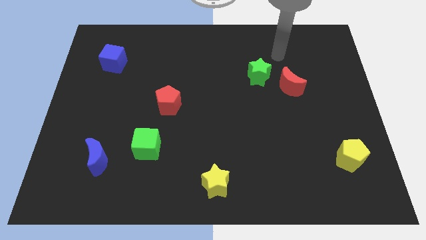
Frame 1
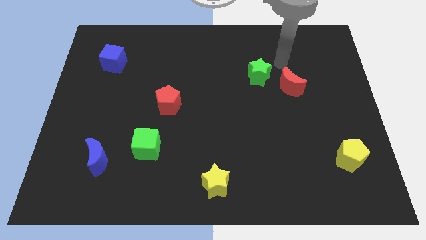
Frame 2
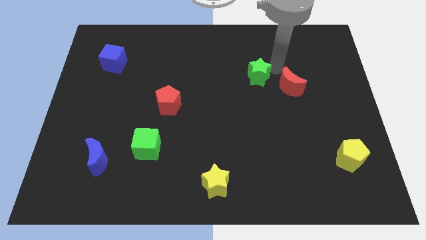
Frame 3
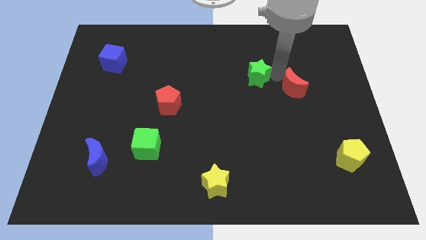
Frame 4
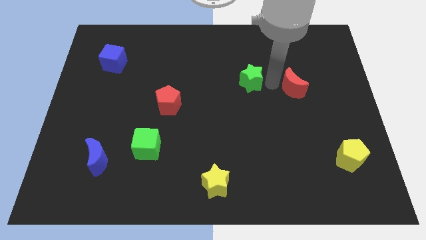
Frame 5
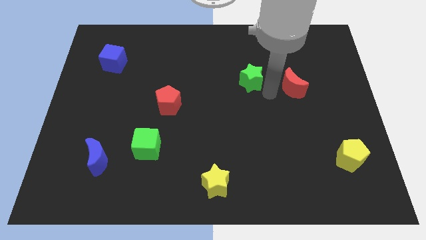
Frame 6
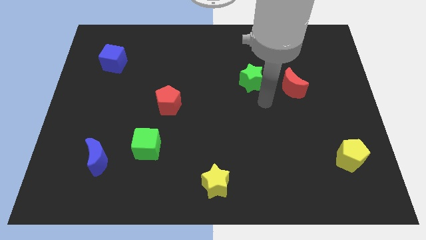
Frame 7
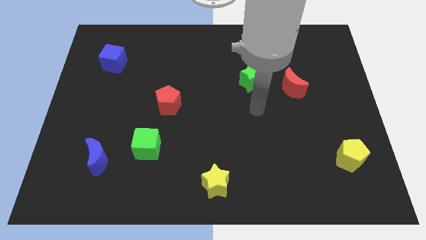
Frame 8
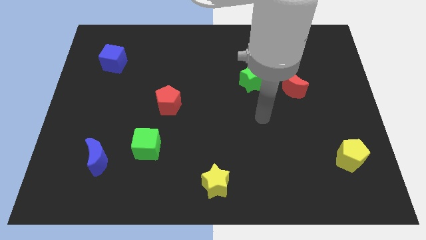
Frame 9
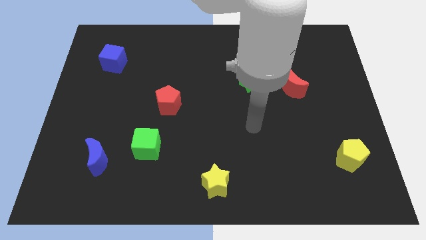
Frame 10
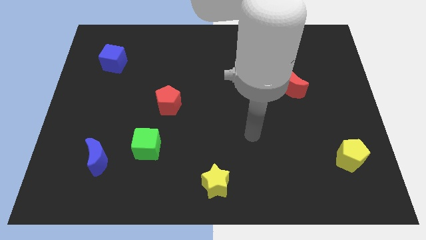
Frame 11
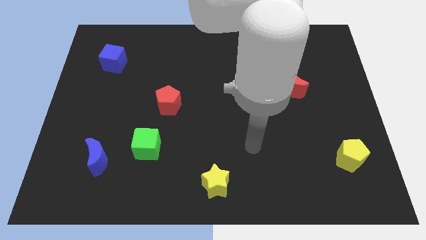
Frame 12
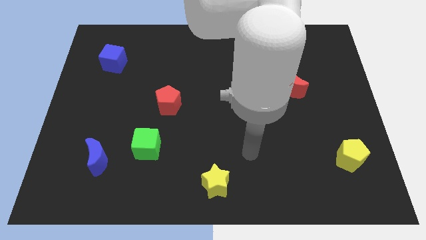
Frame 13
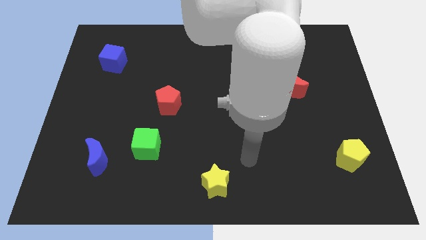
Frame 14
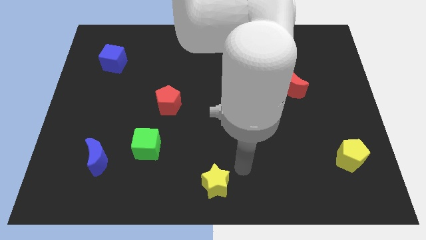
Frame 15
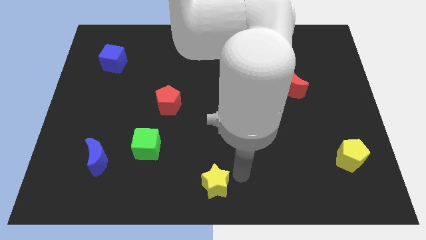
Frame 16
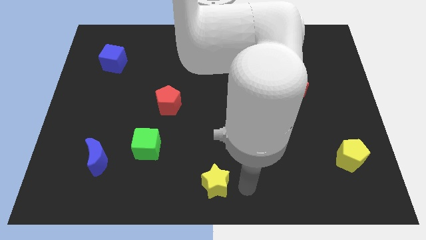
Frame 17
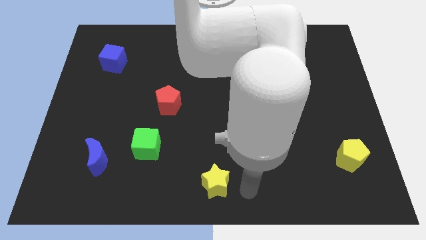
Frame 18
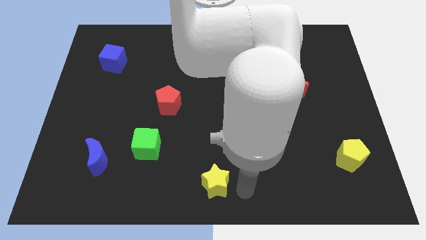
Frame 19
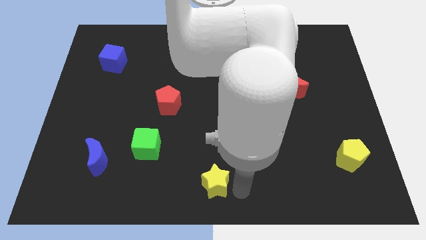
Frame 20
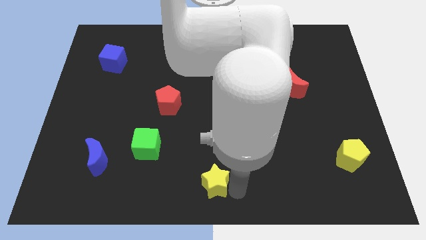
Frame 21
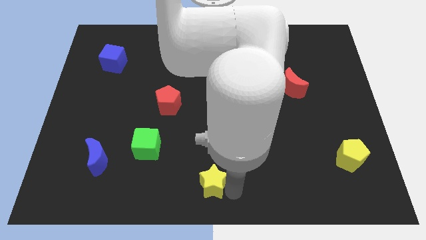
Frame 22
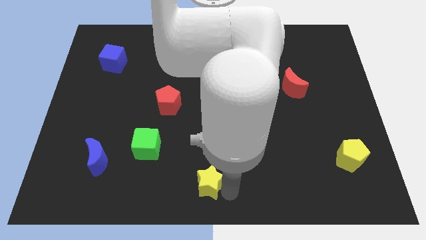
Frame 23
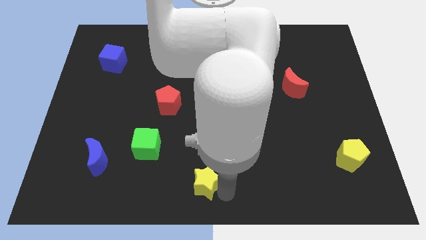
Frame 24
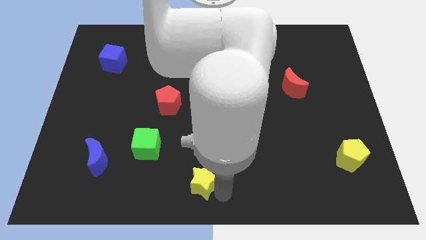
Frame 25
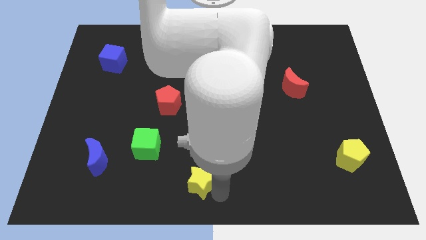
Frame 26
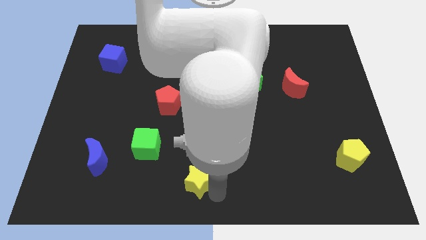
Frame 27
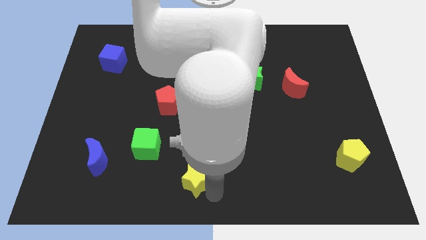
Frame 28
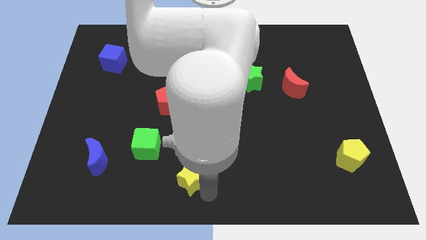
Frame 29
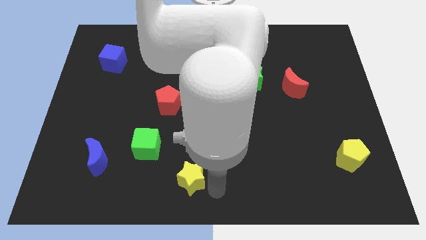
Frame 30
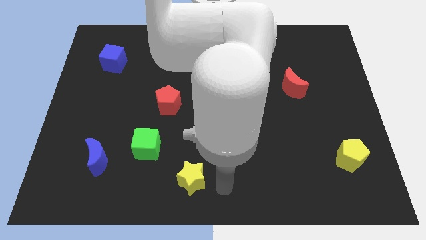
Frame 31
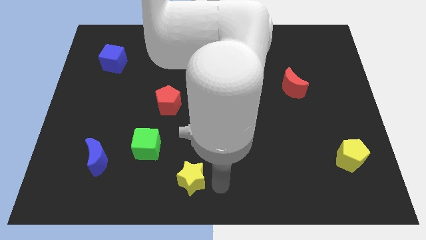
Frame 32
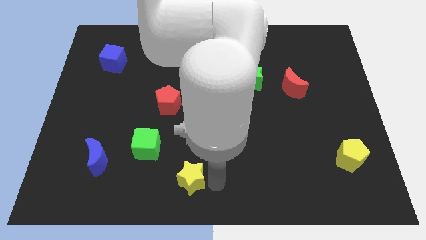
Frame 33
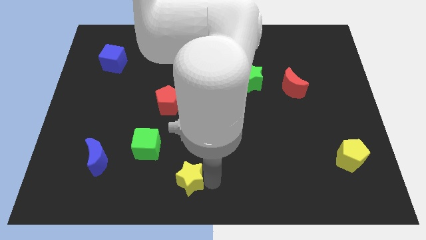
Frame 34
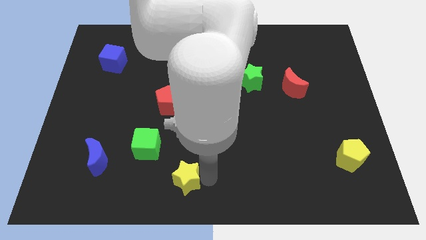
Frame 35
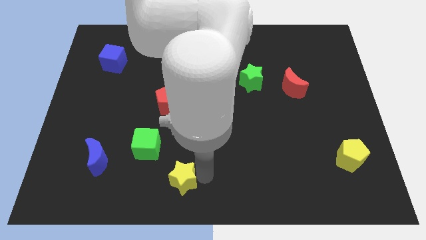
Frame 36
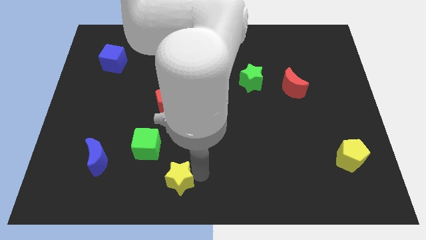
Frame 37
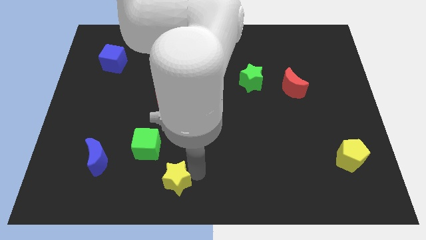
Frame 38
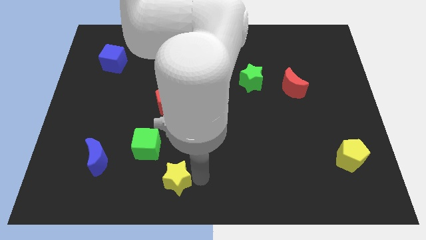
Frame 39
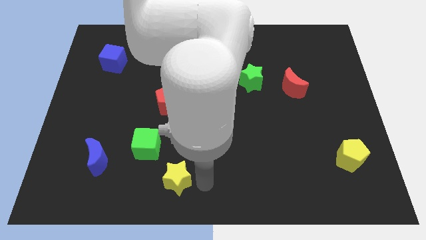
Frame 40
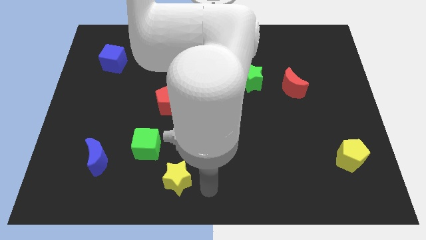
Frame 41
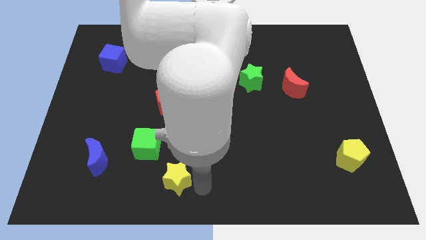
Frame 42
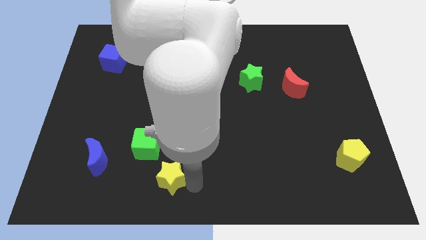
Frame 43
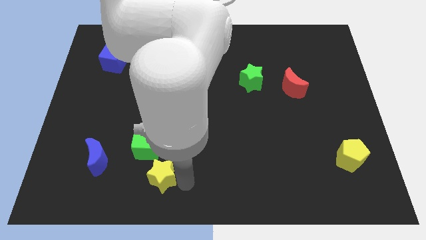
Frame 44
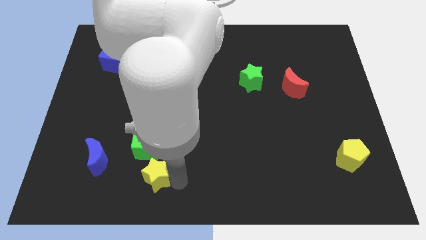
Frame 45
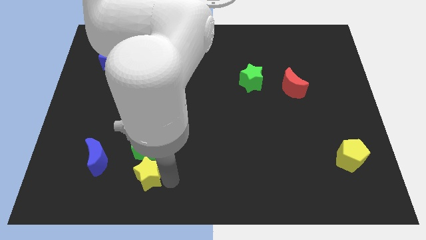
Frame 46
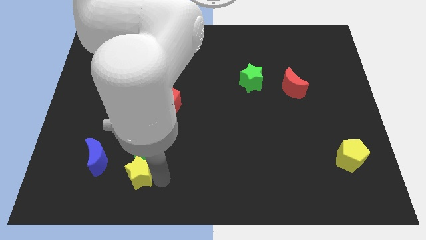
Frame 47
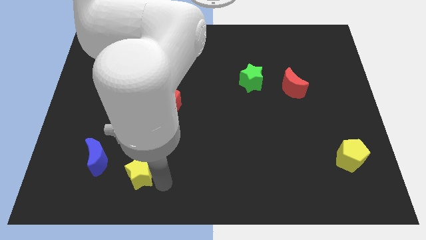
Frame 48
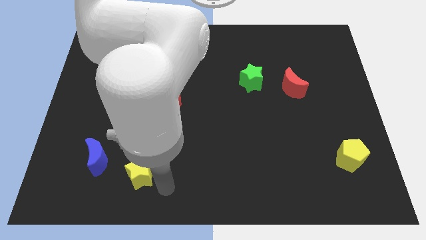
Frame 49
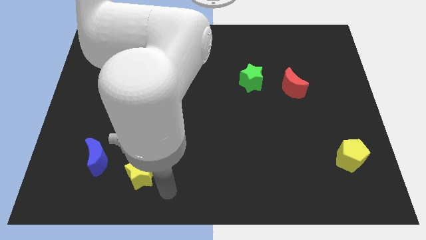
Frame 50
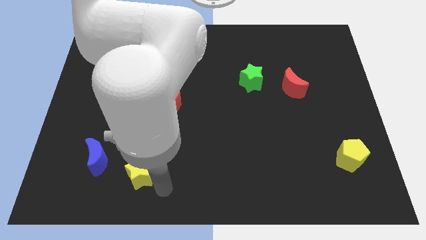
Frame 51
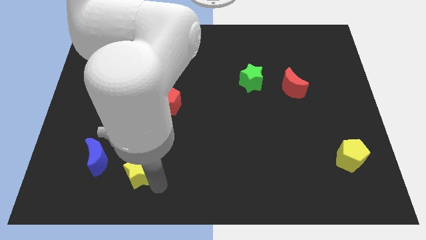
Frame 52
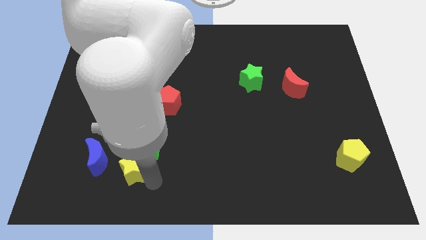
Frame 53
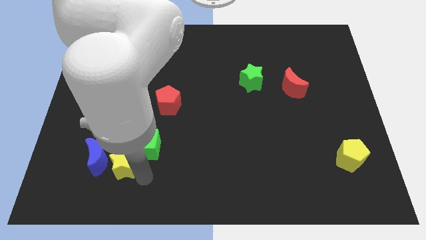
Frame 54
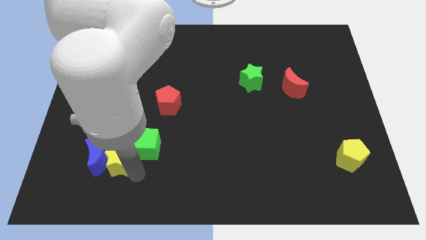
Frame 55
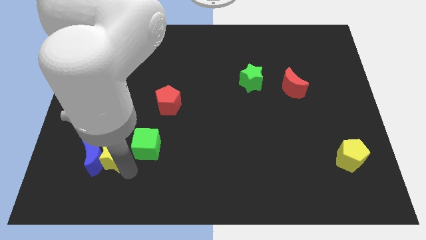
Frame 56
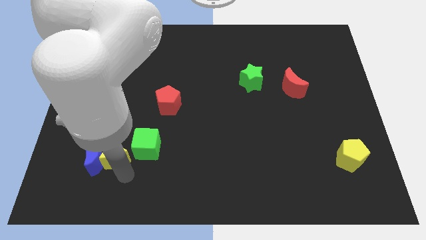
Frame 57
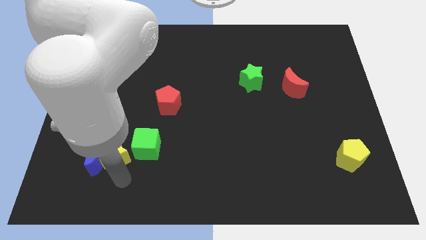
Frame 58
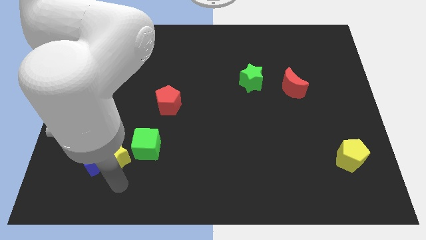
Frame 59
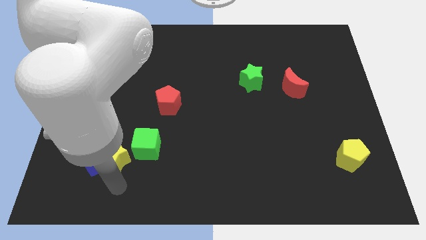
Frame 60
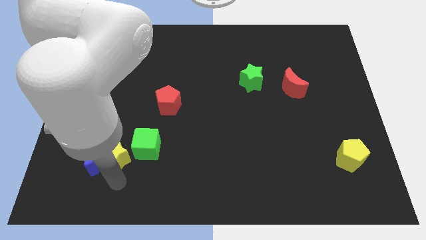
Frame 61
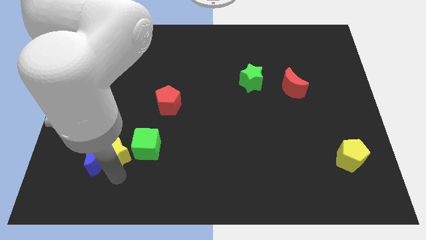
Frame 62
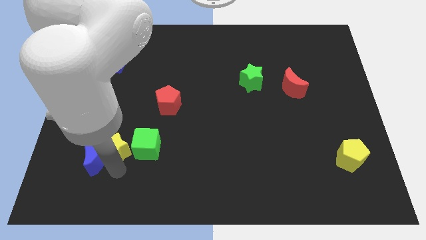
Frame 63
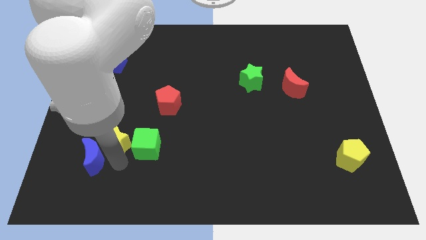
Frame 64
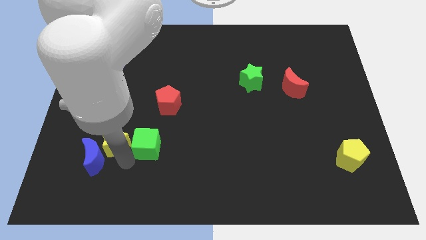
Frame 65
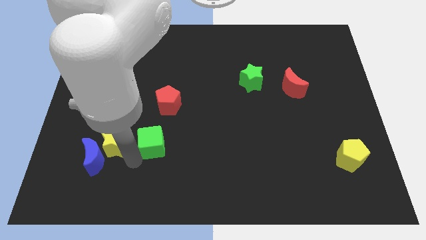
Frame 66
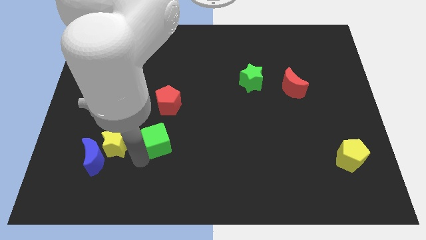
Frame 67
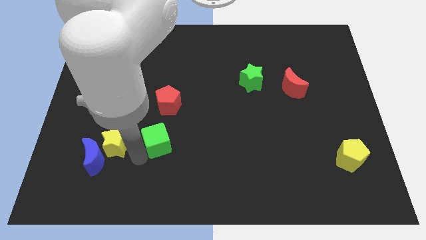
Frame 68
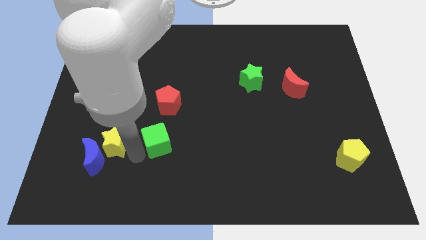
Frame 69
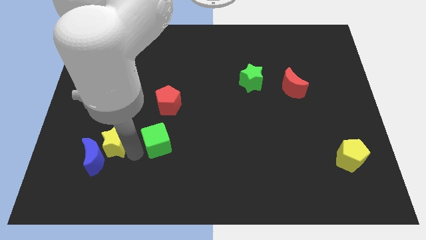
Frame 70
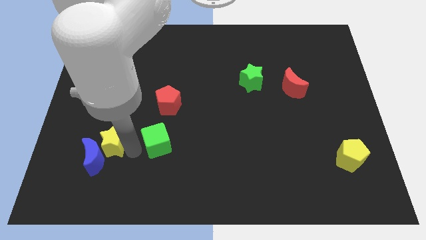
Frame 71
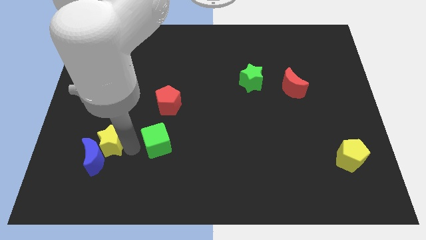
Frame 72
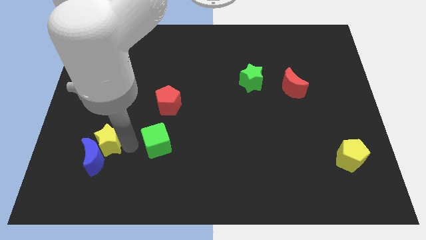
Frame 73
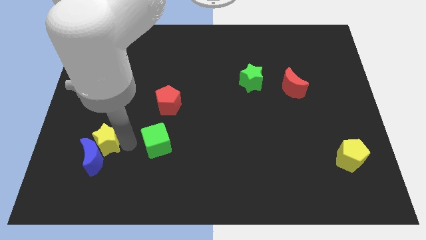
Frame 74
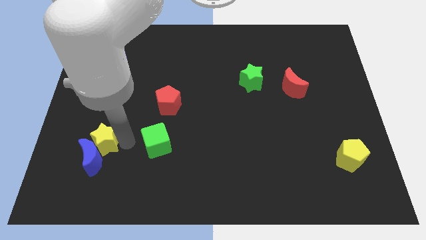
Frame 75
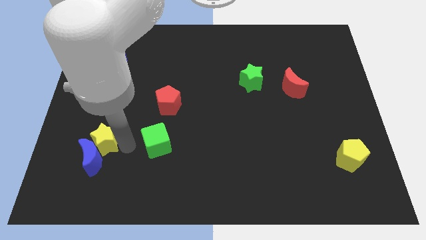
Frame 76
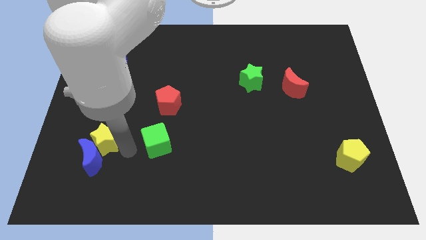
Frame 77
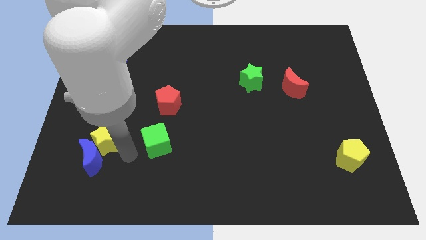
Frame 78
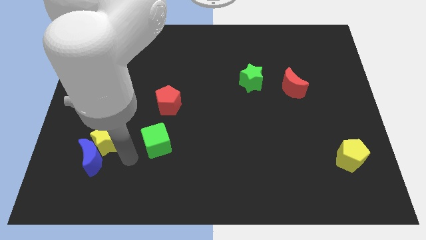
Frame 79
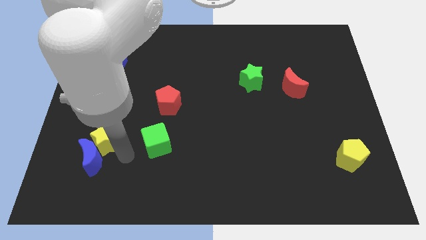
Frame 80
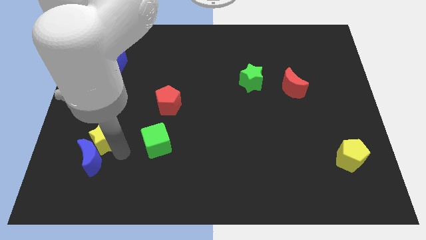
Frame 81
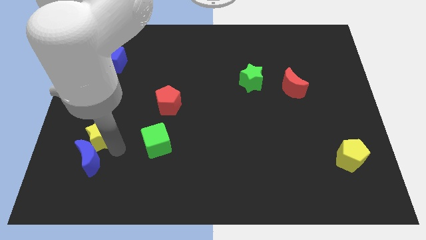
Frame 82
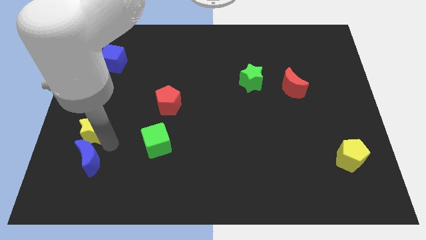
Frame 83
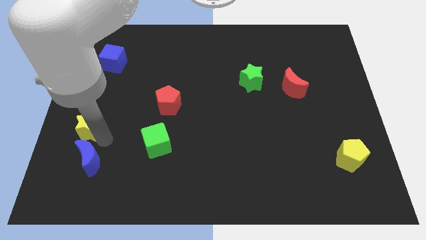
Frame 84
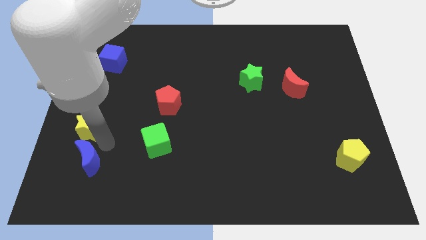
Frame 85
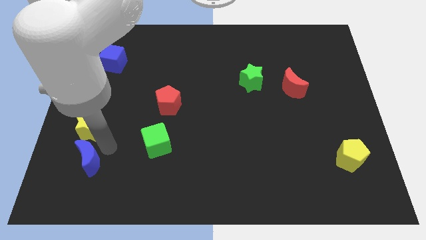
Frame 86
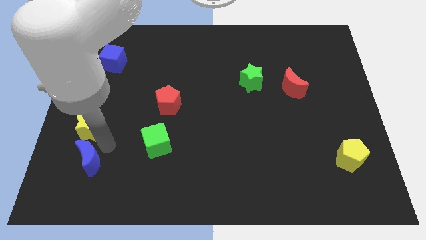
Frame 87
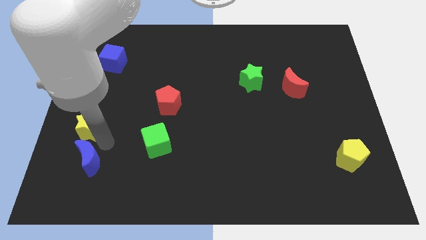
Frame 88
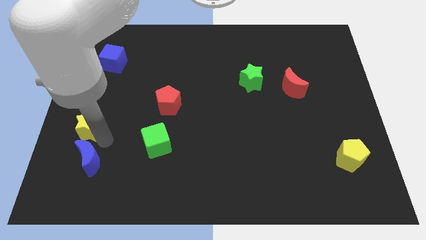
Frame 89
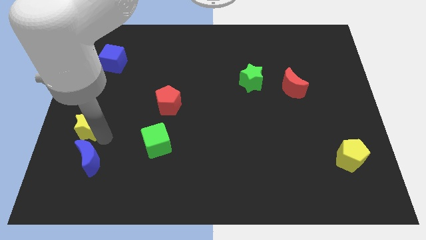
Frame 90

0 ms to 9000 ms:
move the yellow star to the center left
